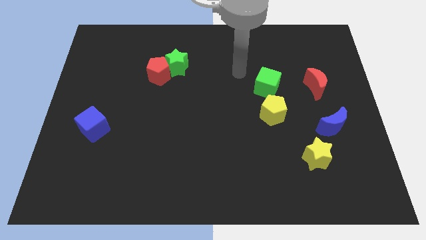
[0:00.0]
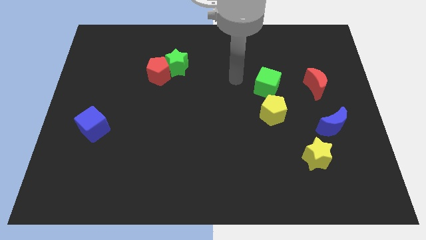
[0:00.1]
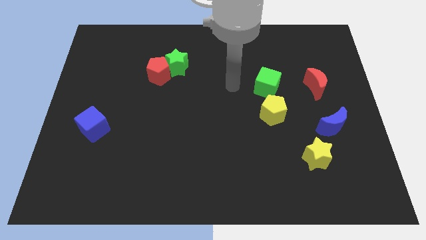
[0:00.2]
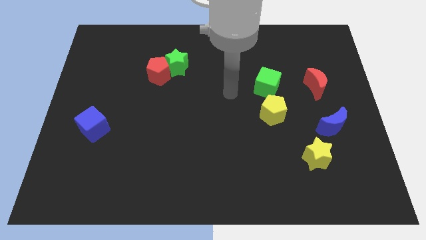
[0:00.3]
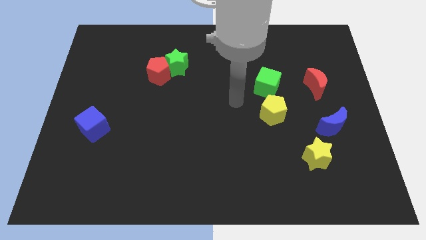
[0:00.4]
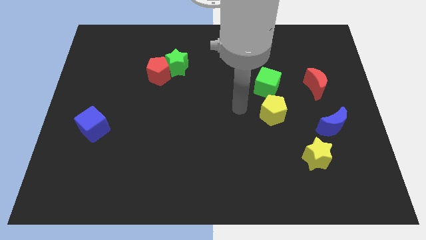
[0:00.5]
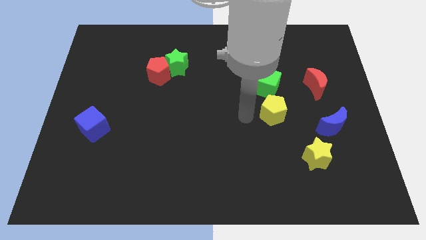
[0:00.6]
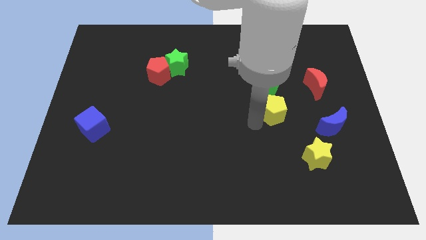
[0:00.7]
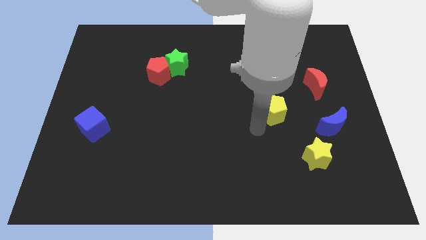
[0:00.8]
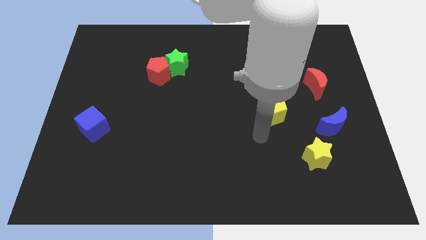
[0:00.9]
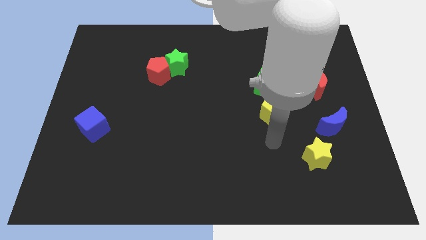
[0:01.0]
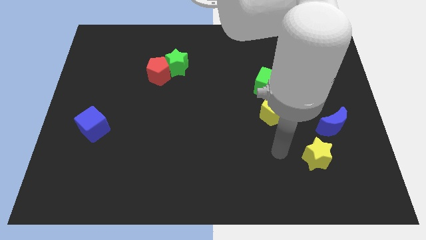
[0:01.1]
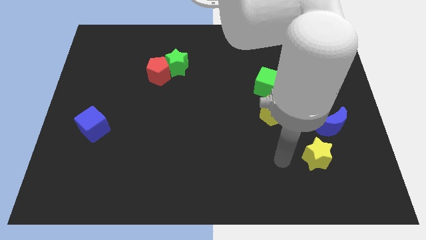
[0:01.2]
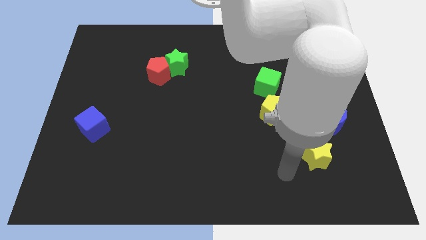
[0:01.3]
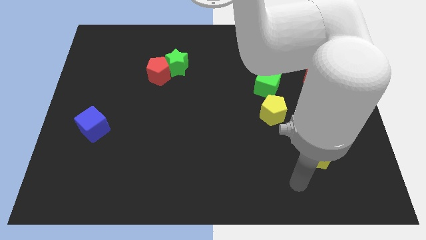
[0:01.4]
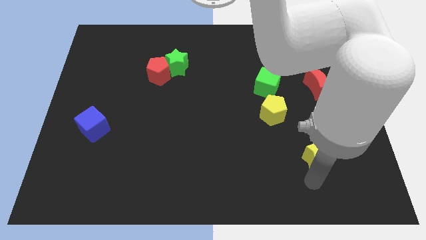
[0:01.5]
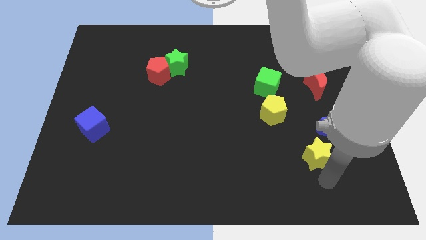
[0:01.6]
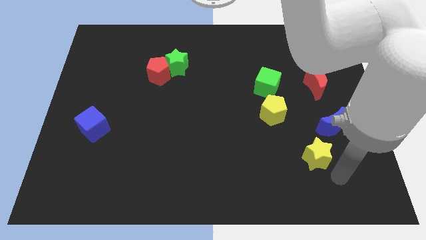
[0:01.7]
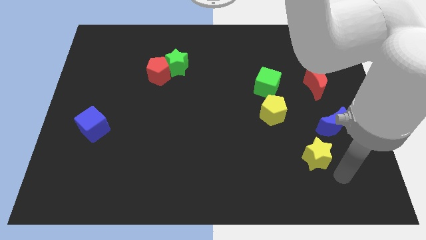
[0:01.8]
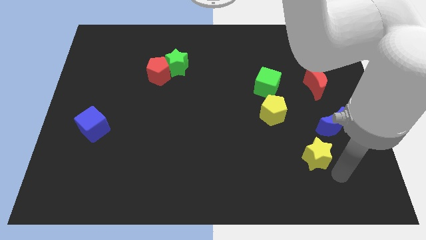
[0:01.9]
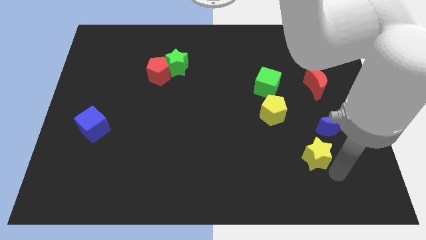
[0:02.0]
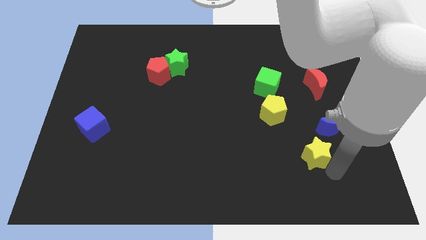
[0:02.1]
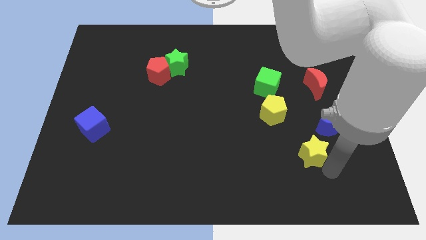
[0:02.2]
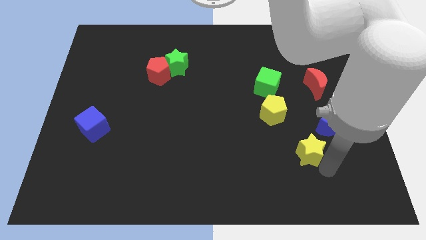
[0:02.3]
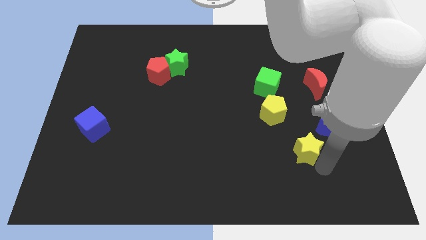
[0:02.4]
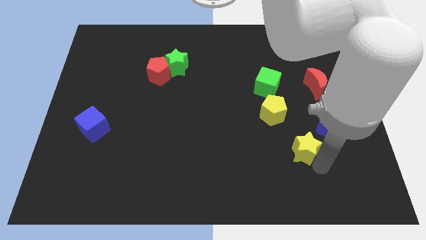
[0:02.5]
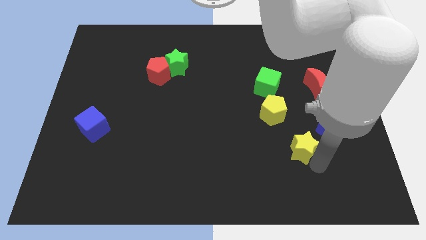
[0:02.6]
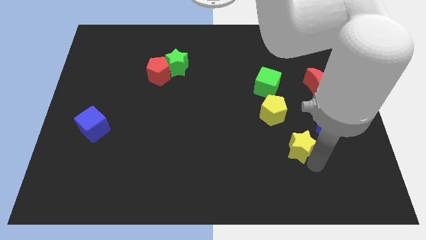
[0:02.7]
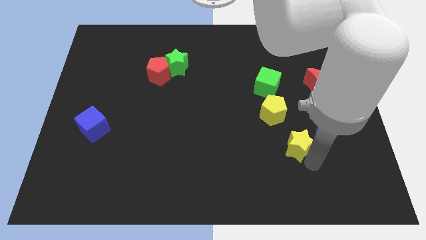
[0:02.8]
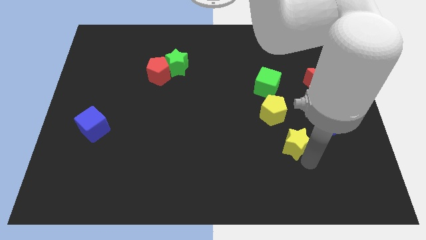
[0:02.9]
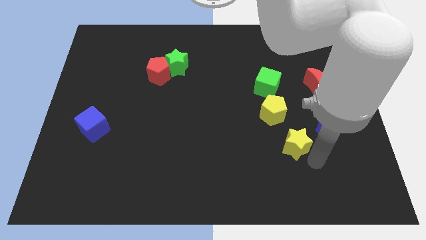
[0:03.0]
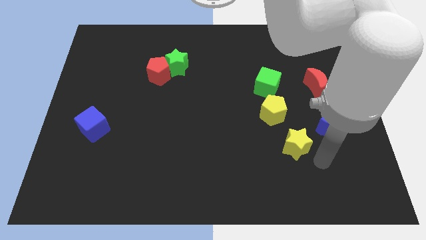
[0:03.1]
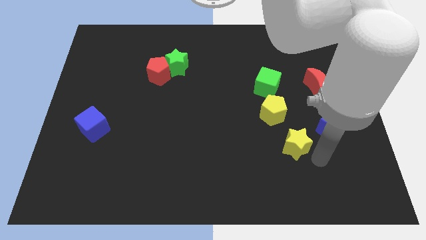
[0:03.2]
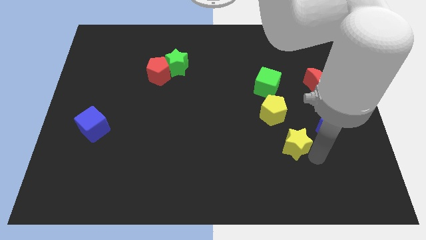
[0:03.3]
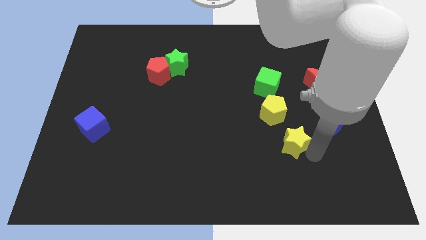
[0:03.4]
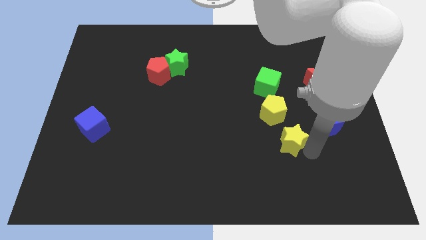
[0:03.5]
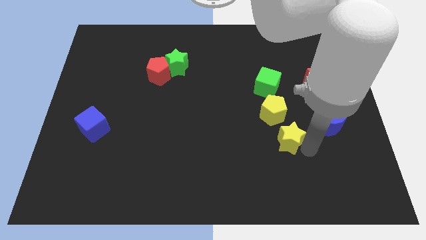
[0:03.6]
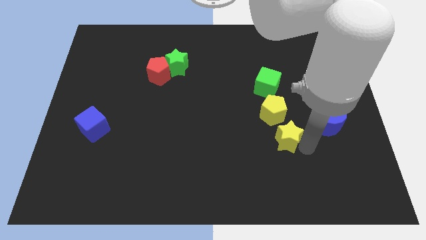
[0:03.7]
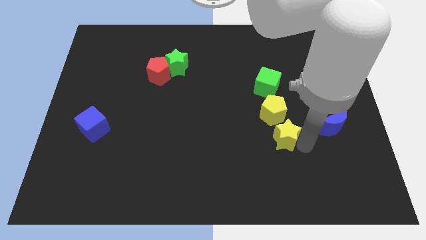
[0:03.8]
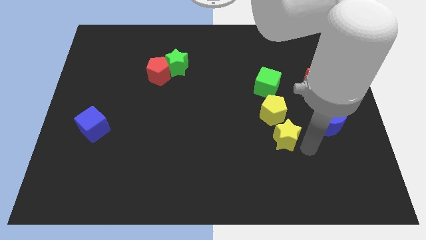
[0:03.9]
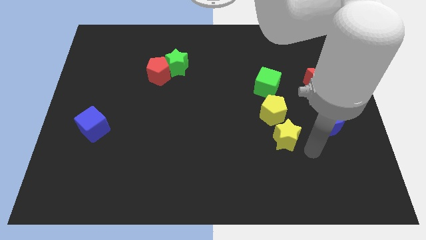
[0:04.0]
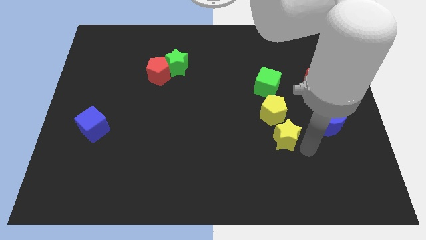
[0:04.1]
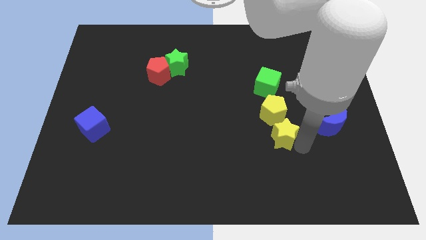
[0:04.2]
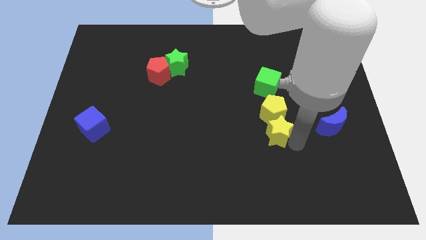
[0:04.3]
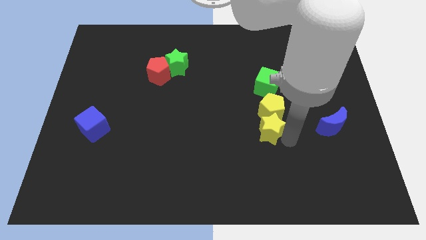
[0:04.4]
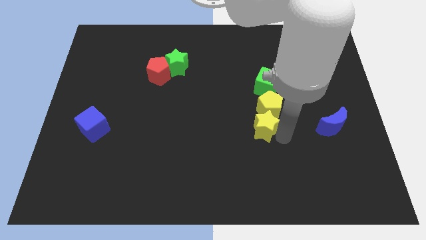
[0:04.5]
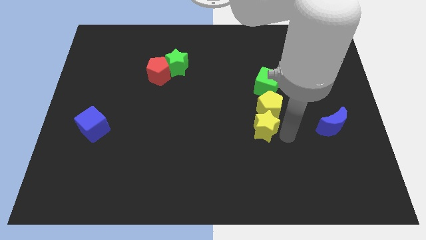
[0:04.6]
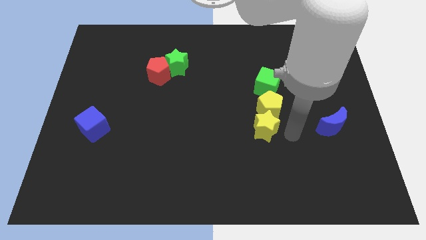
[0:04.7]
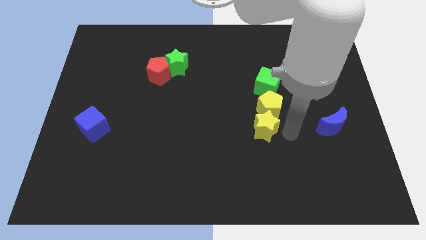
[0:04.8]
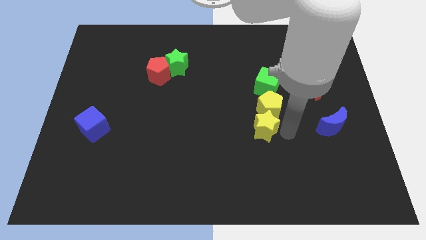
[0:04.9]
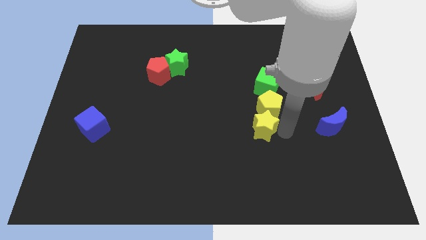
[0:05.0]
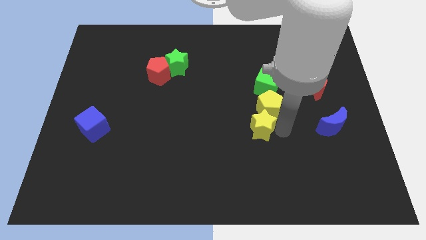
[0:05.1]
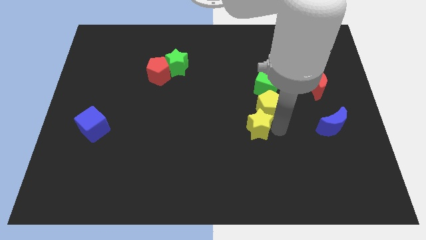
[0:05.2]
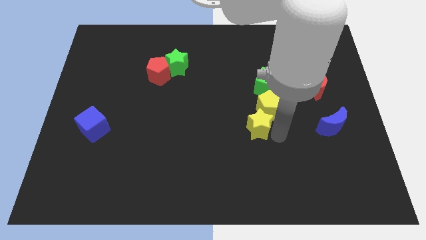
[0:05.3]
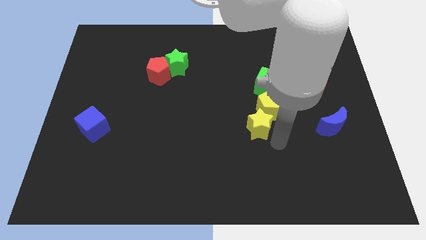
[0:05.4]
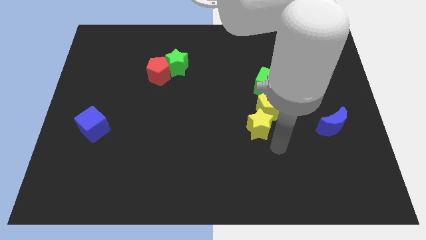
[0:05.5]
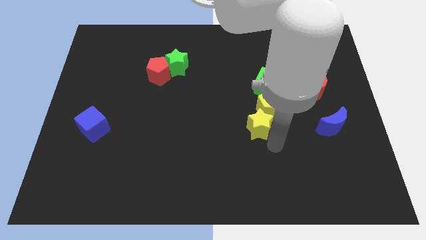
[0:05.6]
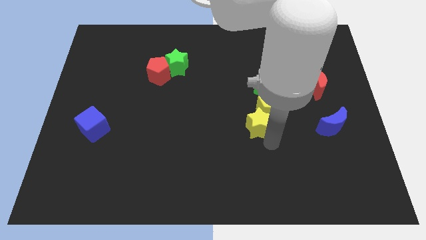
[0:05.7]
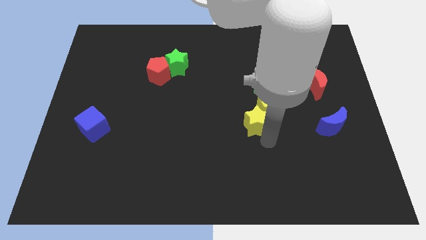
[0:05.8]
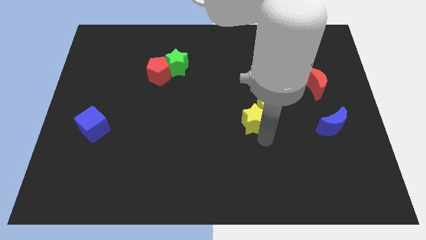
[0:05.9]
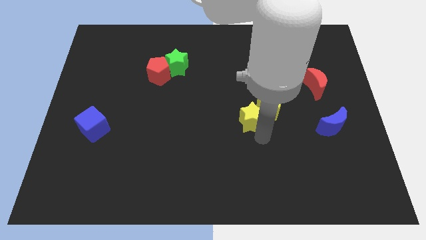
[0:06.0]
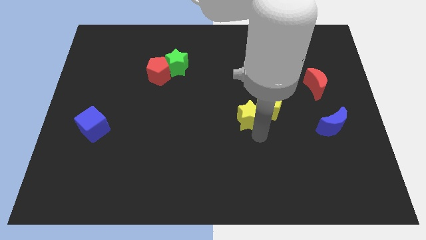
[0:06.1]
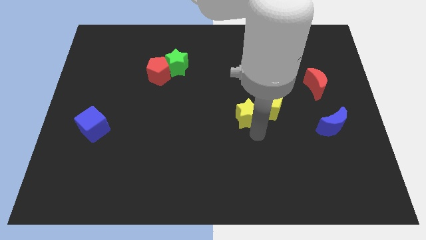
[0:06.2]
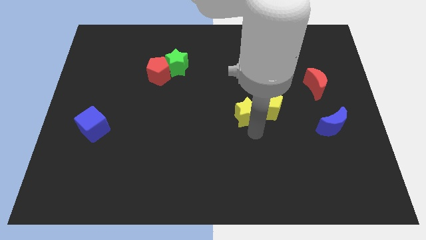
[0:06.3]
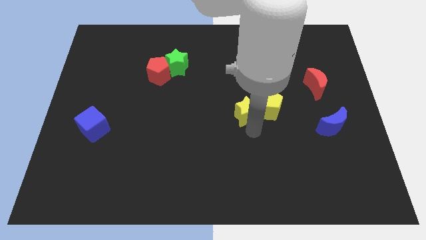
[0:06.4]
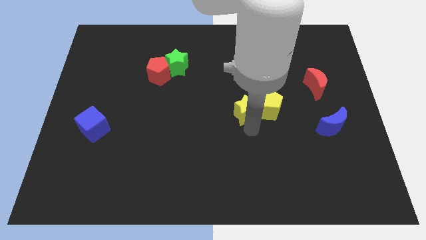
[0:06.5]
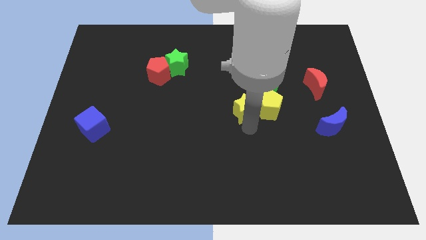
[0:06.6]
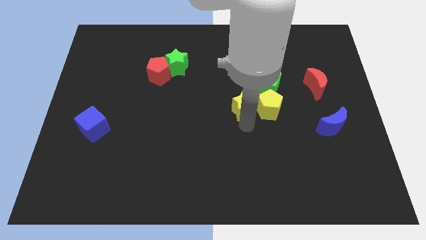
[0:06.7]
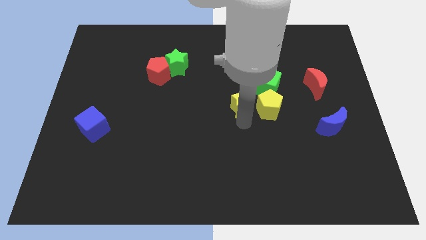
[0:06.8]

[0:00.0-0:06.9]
push the yellow star up and to the left diagonally

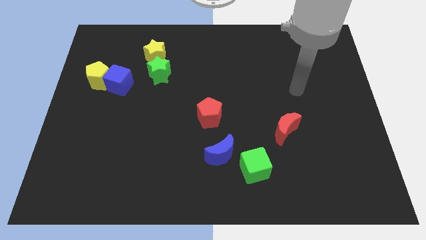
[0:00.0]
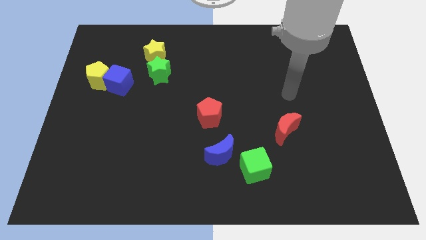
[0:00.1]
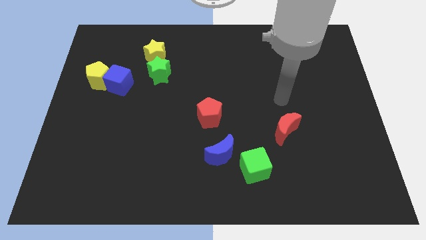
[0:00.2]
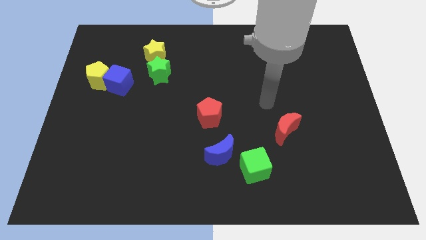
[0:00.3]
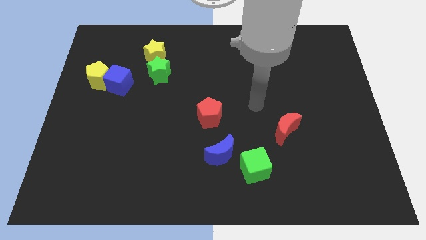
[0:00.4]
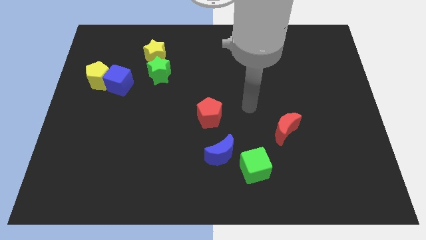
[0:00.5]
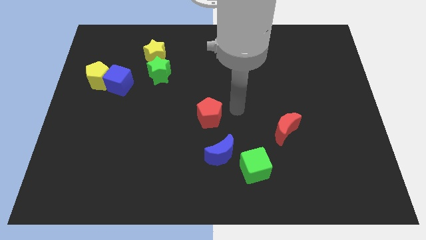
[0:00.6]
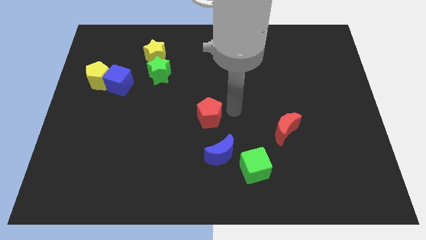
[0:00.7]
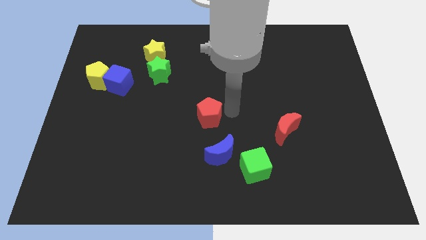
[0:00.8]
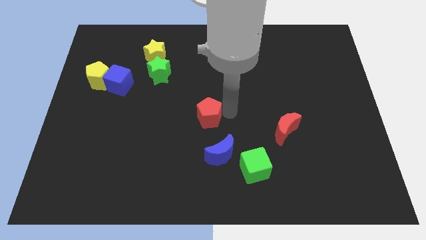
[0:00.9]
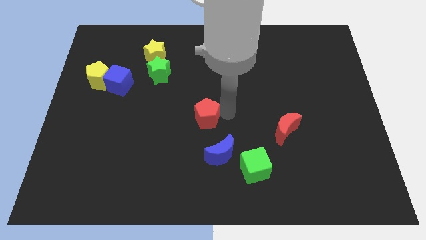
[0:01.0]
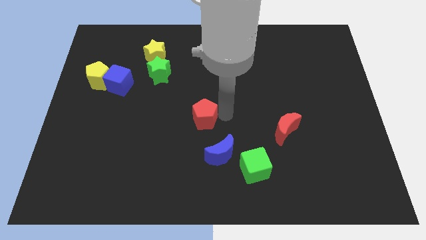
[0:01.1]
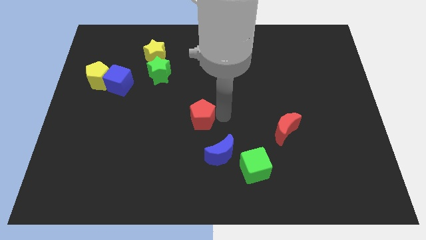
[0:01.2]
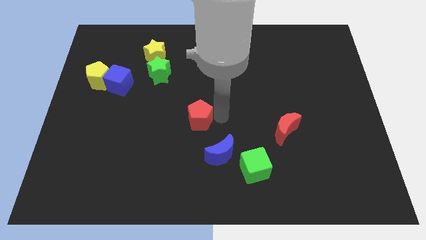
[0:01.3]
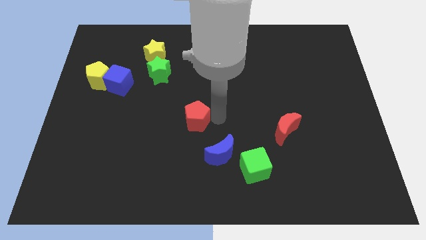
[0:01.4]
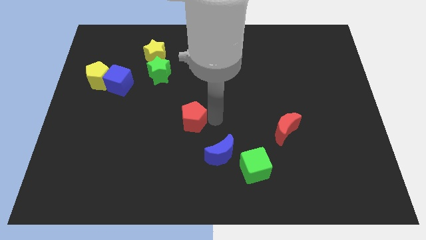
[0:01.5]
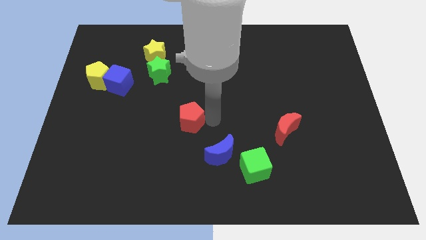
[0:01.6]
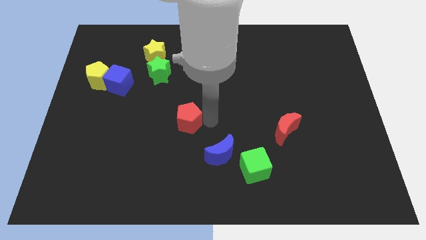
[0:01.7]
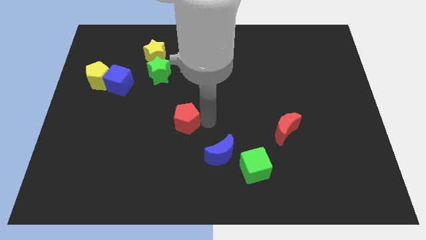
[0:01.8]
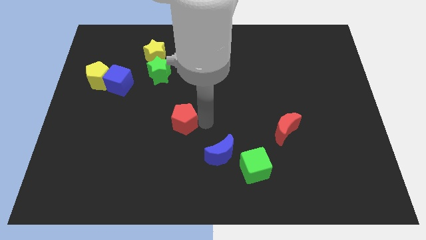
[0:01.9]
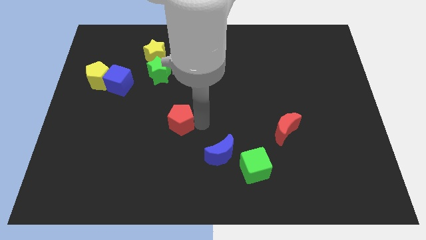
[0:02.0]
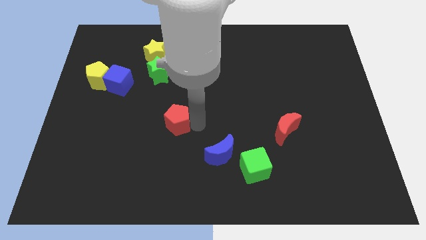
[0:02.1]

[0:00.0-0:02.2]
slide the red pentagon to the left a little
